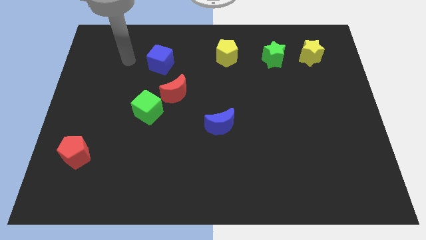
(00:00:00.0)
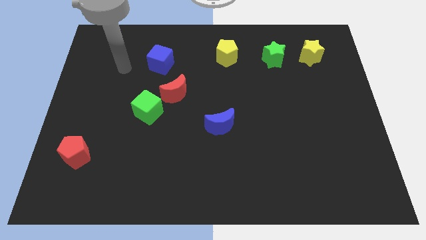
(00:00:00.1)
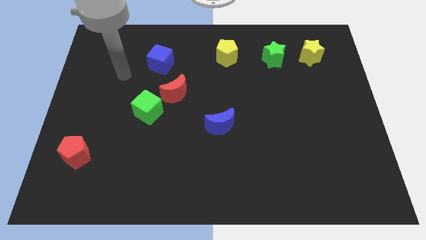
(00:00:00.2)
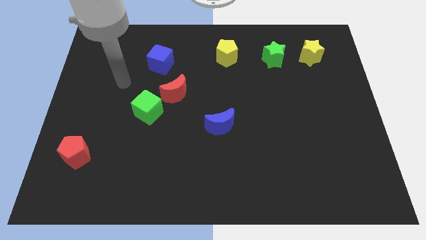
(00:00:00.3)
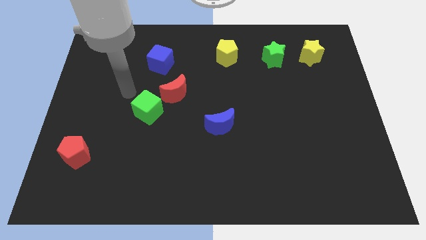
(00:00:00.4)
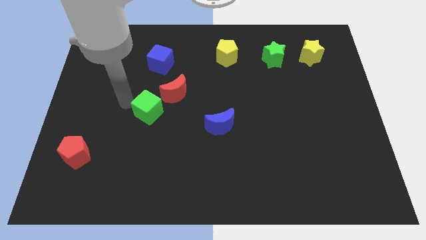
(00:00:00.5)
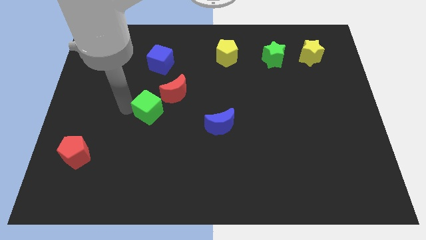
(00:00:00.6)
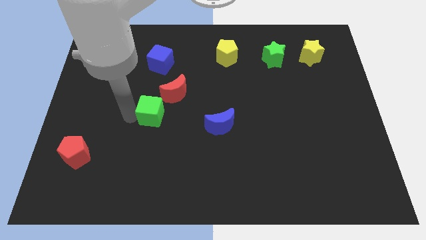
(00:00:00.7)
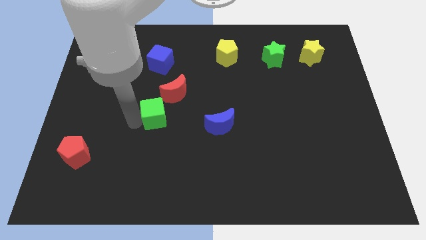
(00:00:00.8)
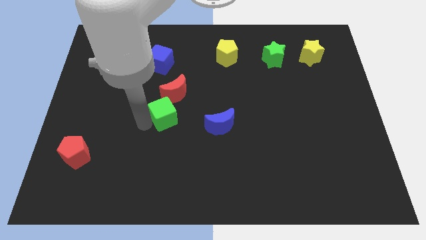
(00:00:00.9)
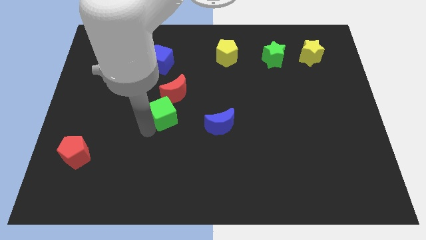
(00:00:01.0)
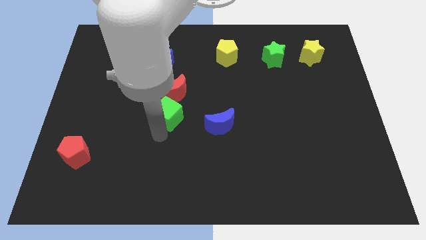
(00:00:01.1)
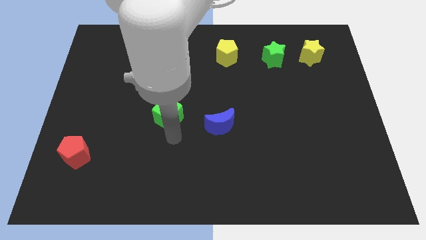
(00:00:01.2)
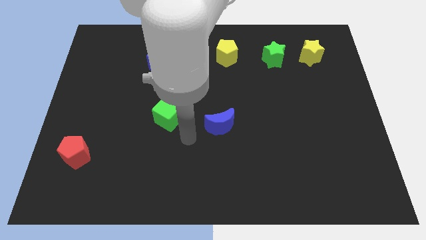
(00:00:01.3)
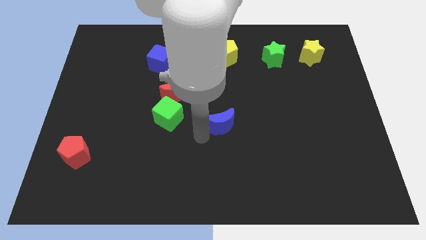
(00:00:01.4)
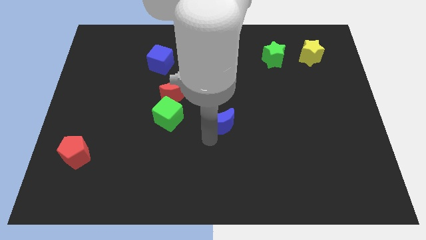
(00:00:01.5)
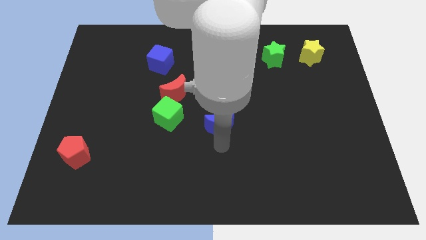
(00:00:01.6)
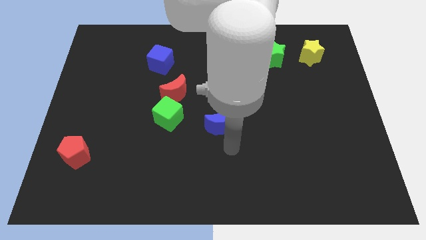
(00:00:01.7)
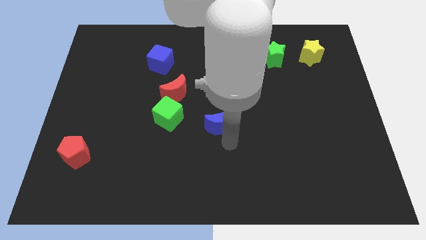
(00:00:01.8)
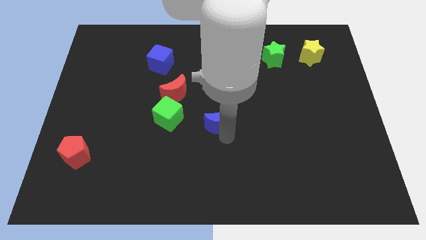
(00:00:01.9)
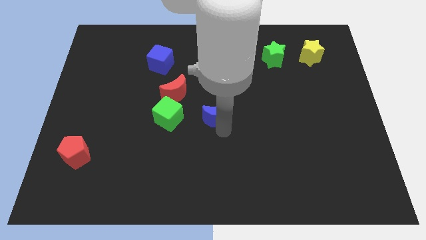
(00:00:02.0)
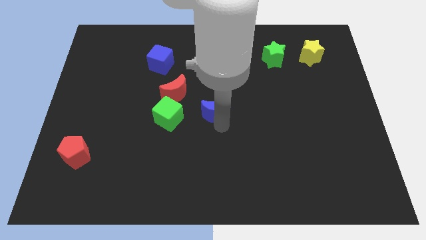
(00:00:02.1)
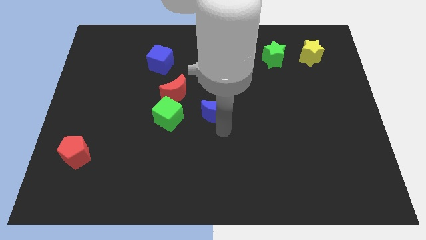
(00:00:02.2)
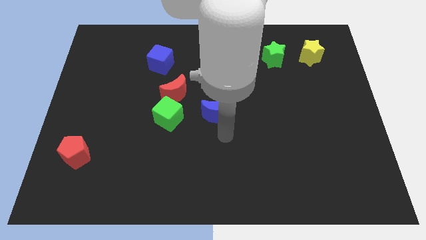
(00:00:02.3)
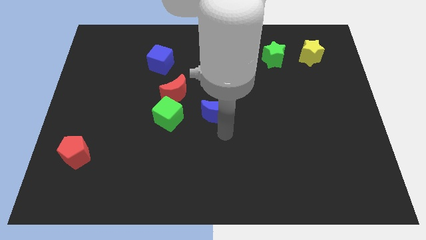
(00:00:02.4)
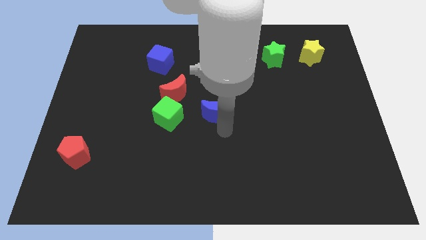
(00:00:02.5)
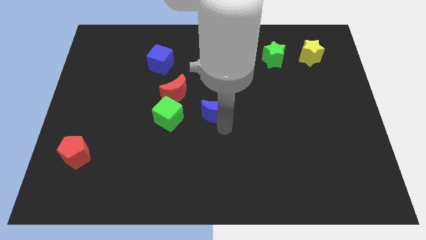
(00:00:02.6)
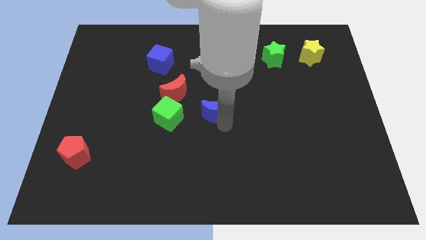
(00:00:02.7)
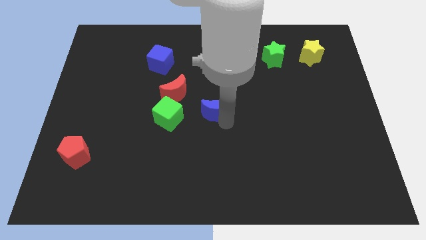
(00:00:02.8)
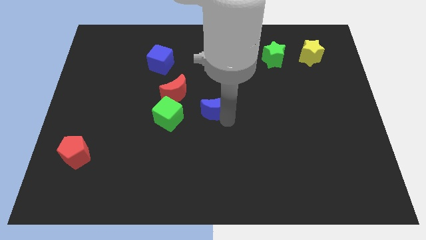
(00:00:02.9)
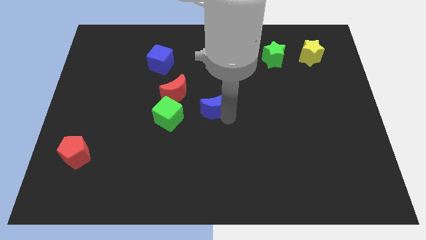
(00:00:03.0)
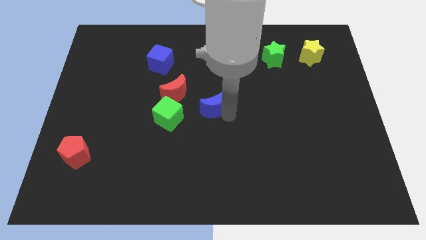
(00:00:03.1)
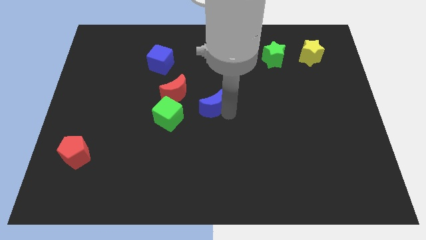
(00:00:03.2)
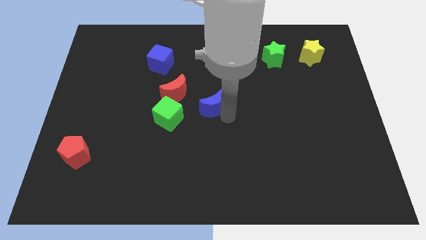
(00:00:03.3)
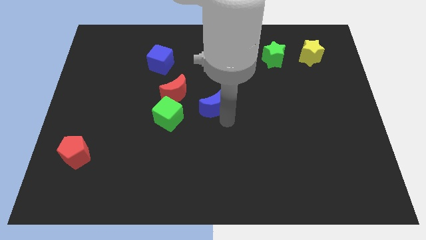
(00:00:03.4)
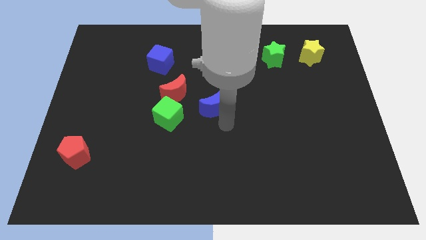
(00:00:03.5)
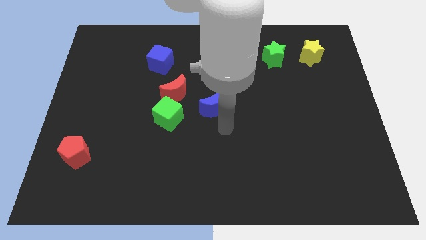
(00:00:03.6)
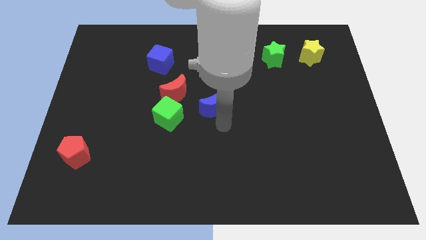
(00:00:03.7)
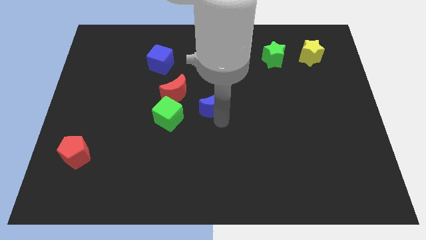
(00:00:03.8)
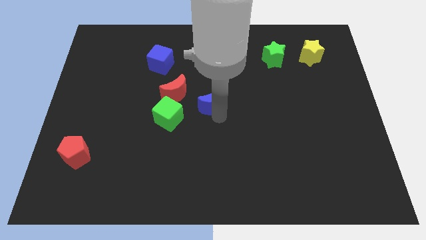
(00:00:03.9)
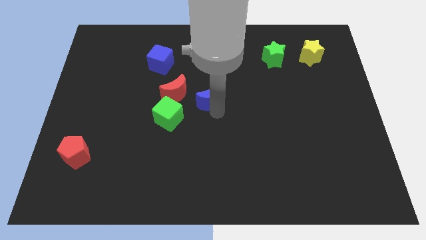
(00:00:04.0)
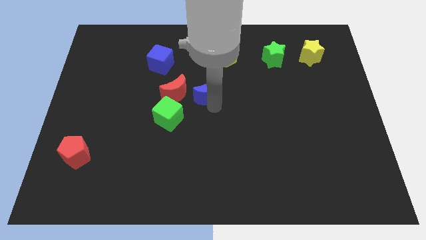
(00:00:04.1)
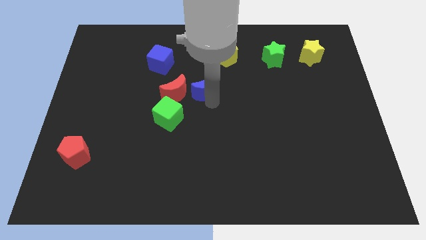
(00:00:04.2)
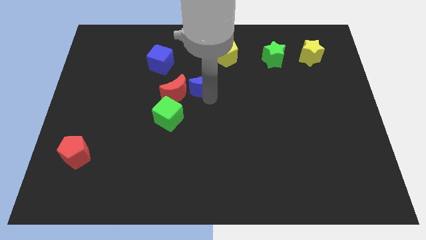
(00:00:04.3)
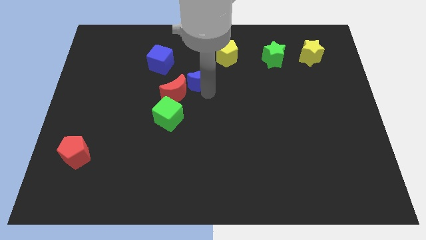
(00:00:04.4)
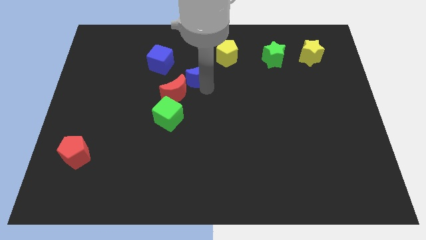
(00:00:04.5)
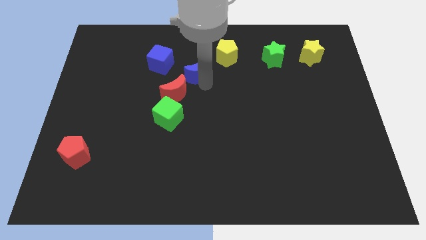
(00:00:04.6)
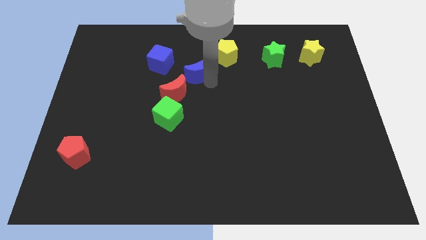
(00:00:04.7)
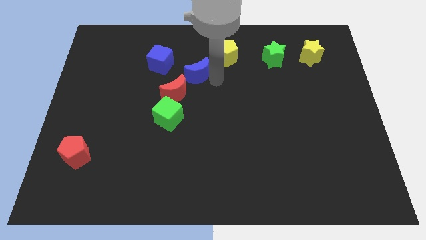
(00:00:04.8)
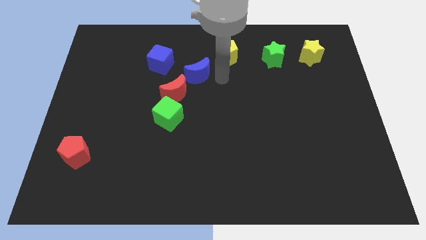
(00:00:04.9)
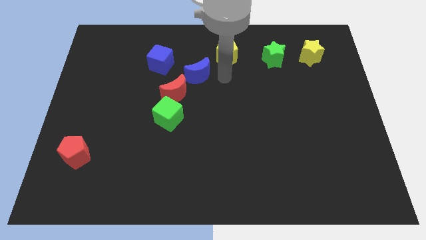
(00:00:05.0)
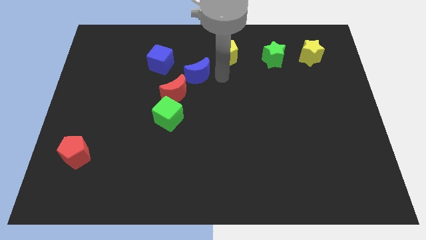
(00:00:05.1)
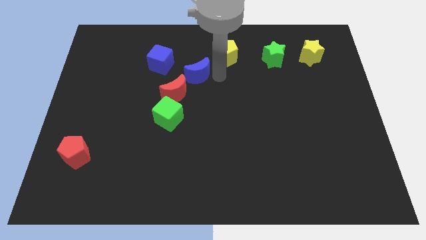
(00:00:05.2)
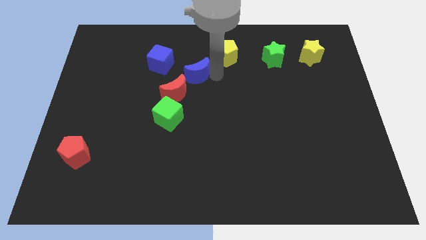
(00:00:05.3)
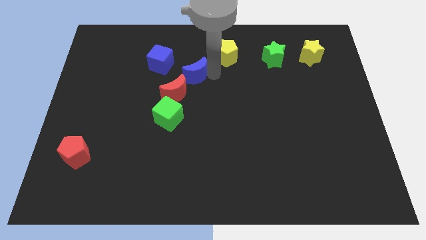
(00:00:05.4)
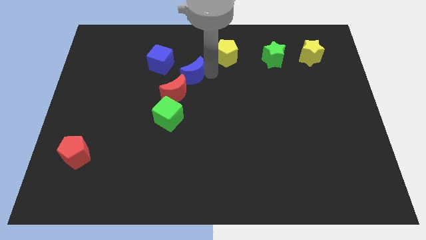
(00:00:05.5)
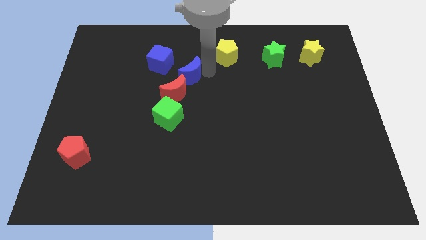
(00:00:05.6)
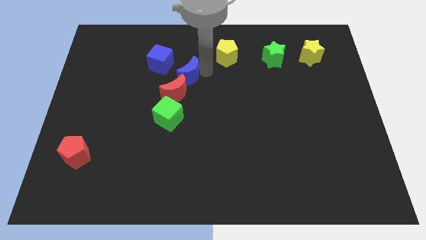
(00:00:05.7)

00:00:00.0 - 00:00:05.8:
slide the blue moon to the top side of the green cube
